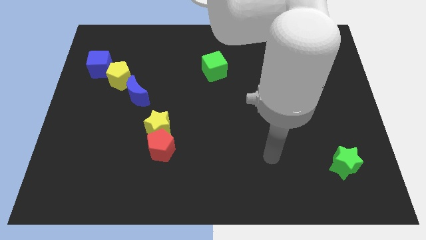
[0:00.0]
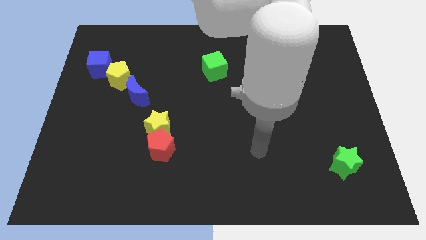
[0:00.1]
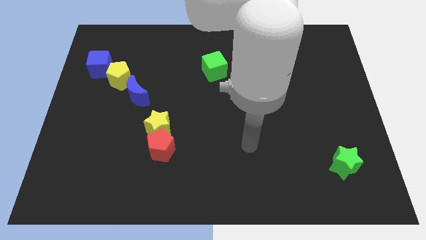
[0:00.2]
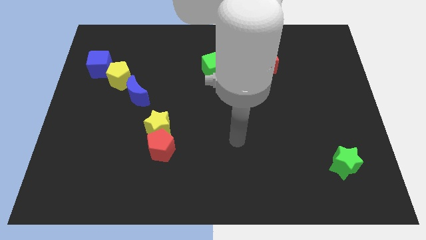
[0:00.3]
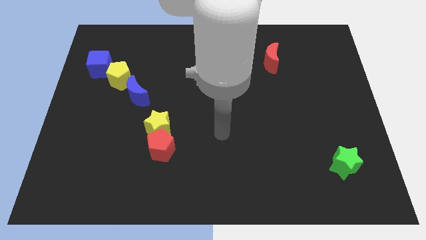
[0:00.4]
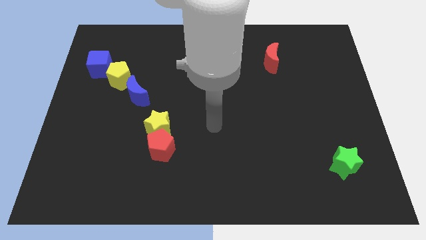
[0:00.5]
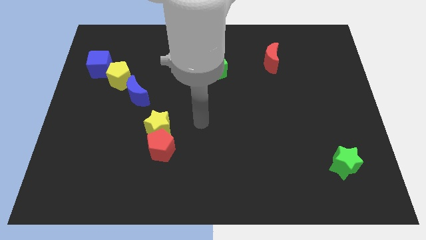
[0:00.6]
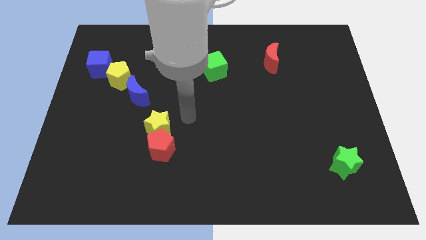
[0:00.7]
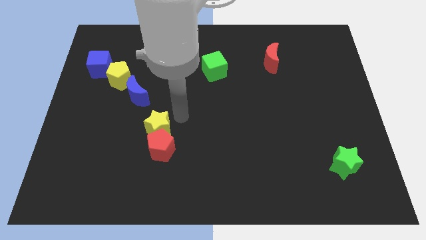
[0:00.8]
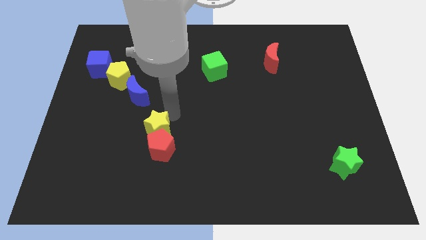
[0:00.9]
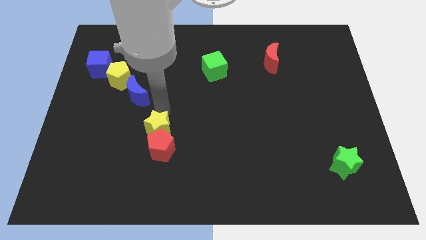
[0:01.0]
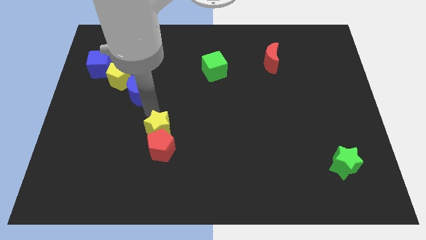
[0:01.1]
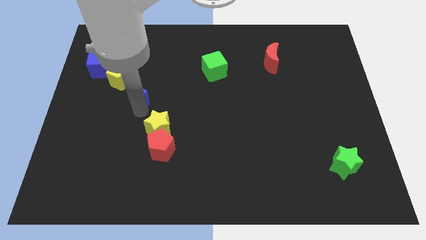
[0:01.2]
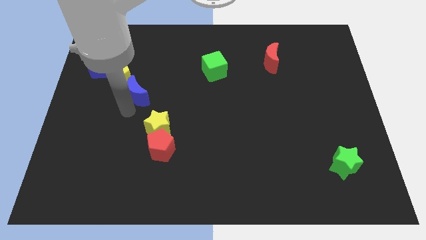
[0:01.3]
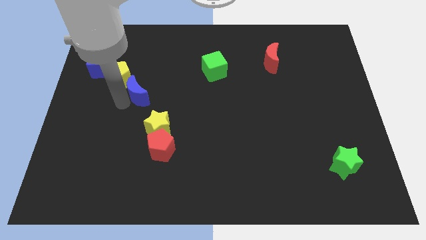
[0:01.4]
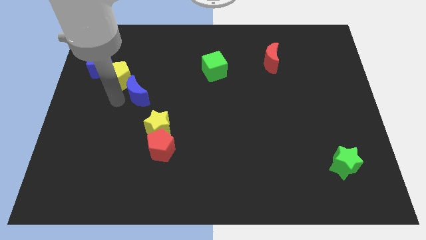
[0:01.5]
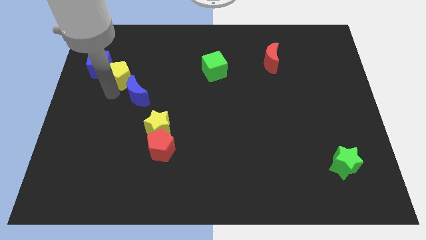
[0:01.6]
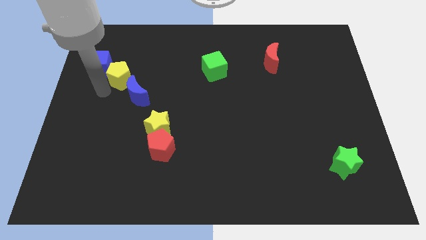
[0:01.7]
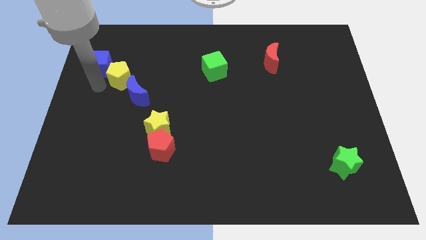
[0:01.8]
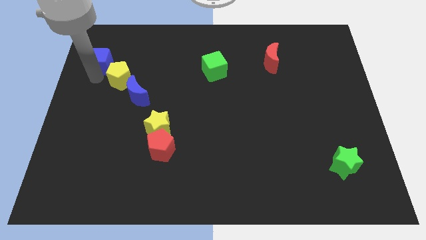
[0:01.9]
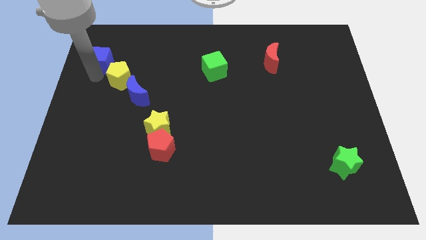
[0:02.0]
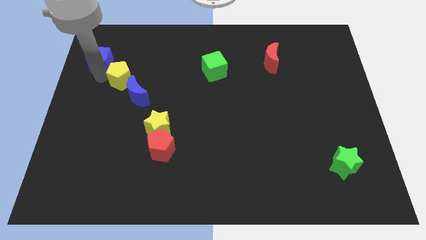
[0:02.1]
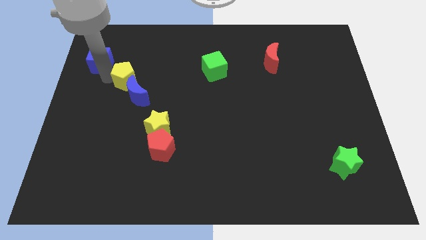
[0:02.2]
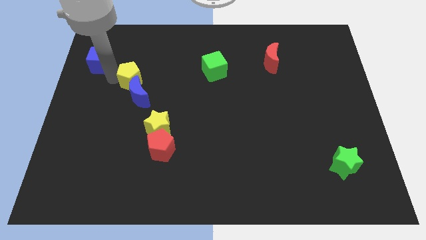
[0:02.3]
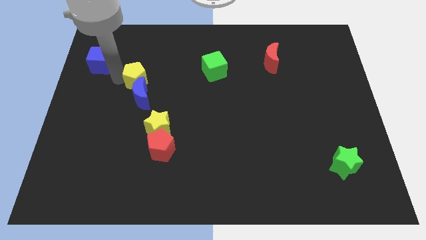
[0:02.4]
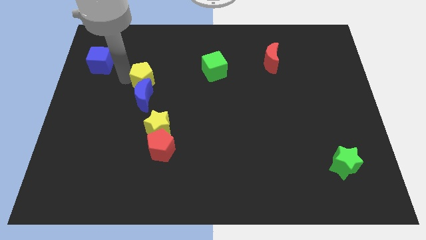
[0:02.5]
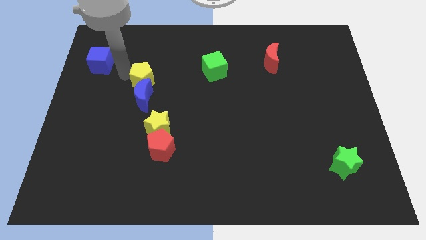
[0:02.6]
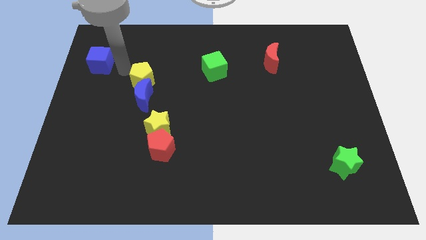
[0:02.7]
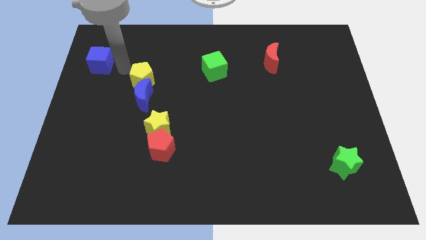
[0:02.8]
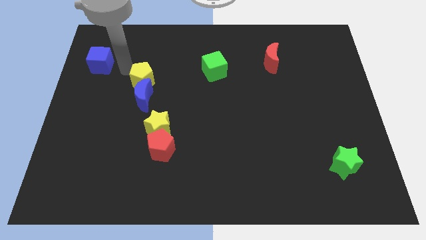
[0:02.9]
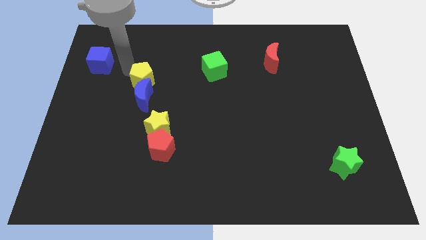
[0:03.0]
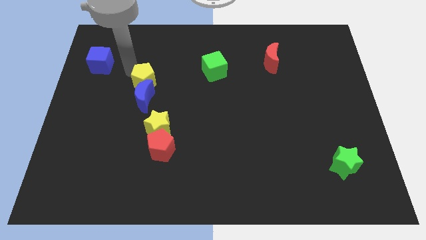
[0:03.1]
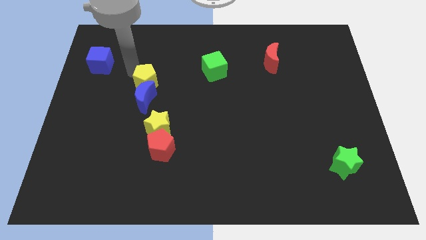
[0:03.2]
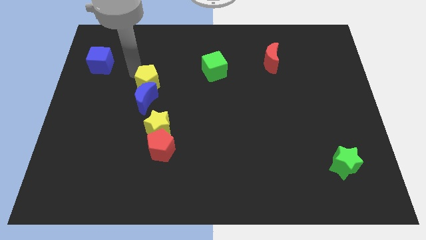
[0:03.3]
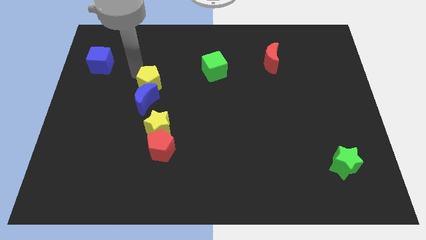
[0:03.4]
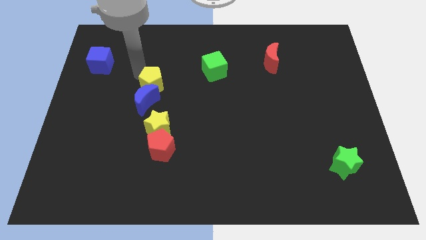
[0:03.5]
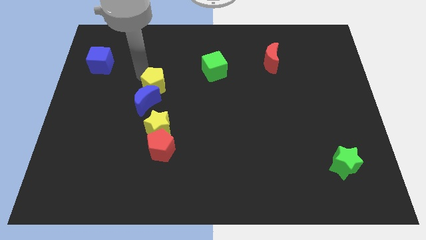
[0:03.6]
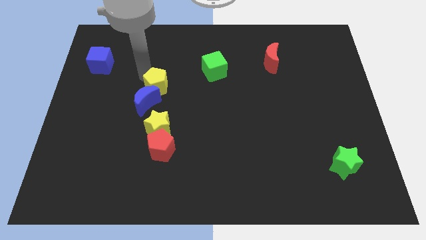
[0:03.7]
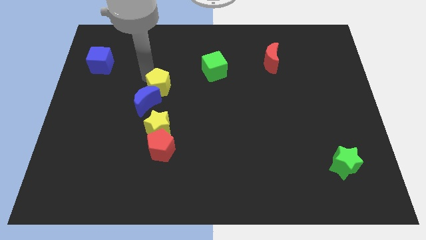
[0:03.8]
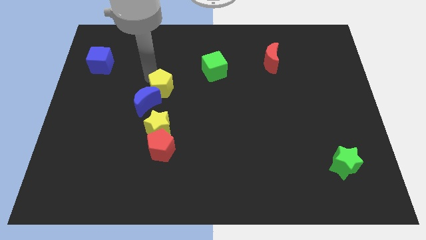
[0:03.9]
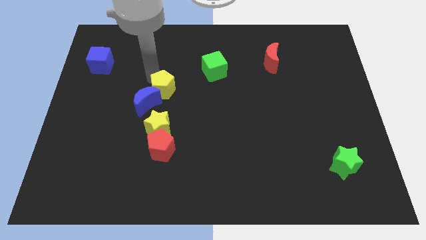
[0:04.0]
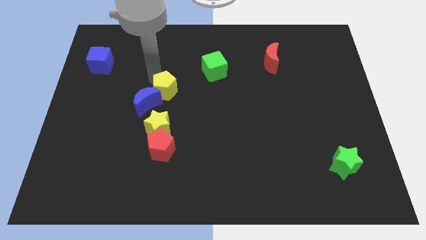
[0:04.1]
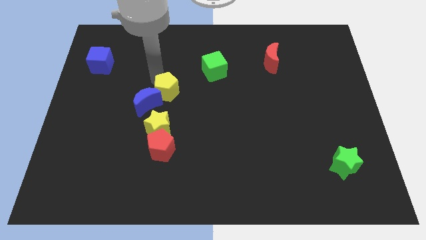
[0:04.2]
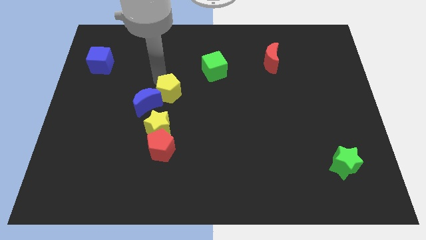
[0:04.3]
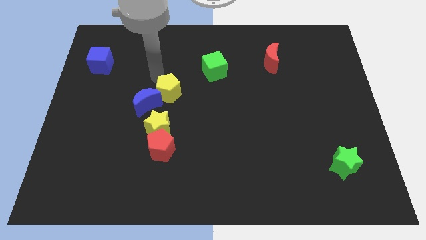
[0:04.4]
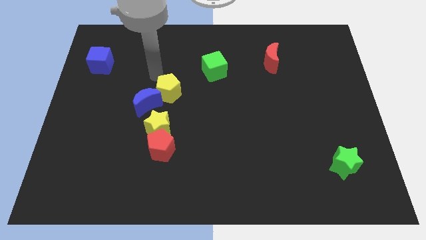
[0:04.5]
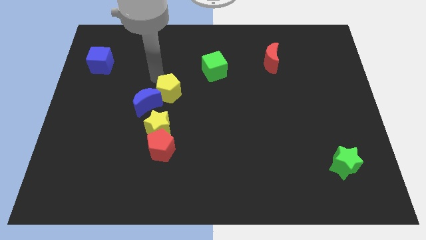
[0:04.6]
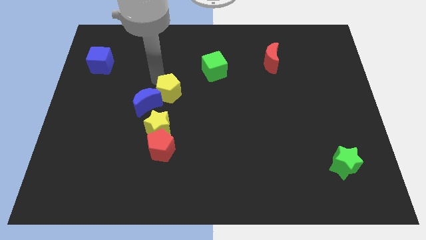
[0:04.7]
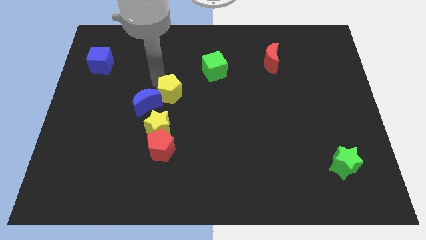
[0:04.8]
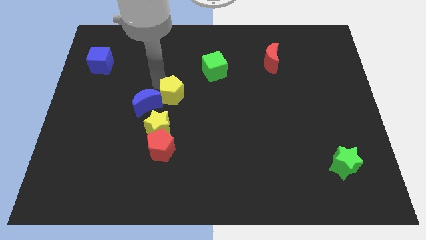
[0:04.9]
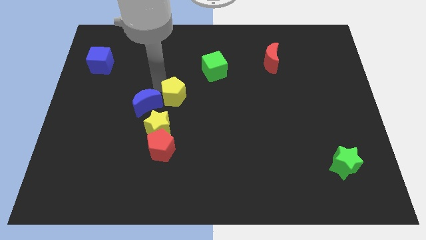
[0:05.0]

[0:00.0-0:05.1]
push the yellow pentagon to the top right of the yellow star

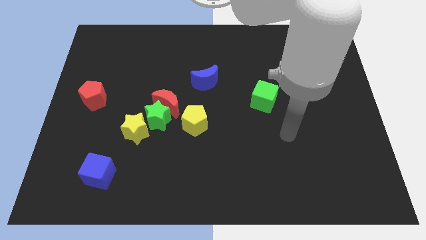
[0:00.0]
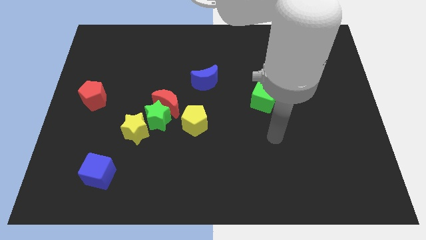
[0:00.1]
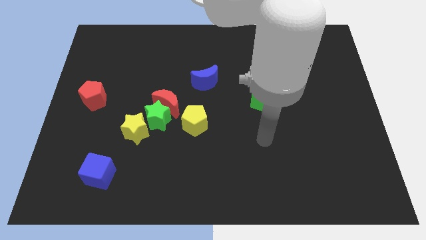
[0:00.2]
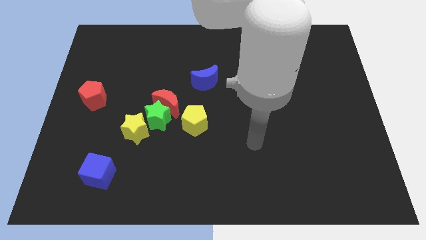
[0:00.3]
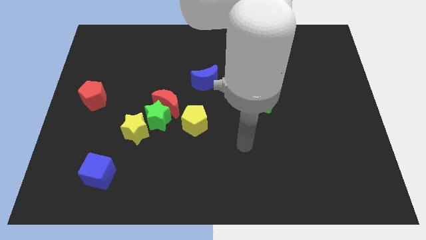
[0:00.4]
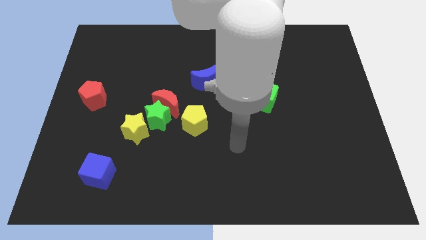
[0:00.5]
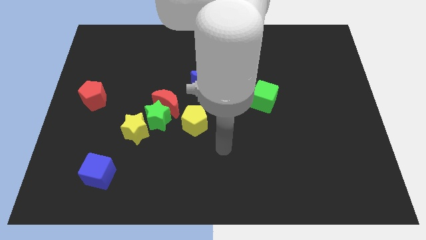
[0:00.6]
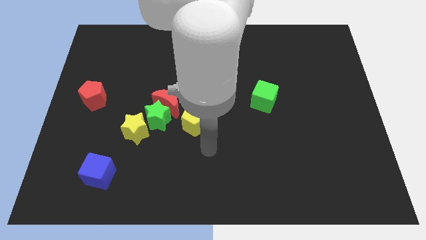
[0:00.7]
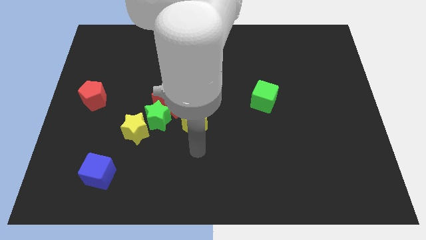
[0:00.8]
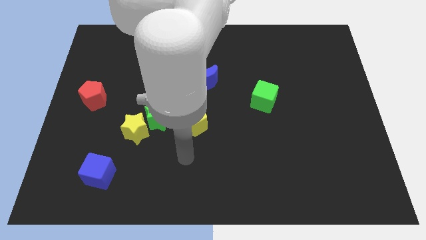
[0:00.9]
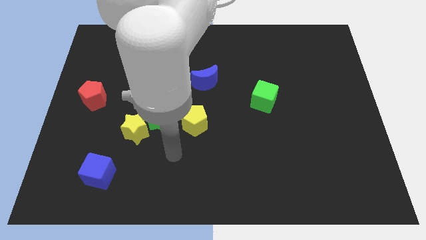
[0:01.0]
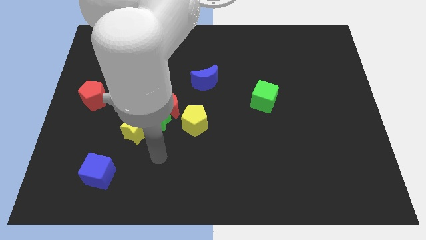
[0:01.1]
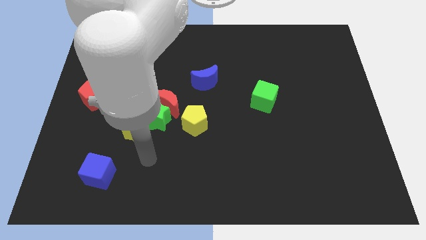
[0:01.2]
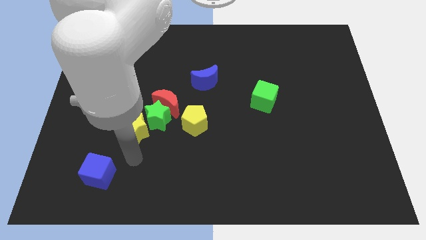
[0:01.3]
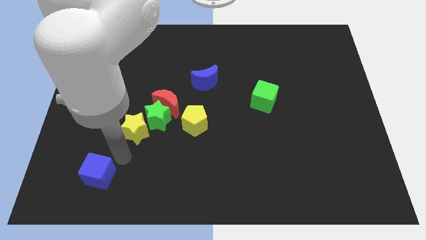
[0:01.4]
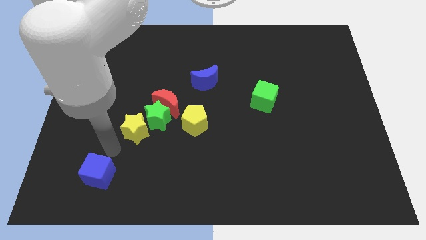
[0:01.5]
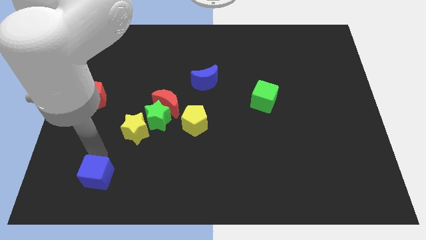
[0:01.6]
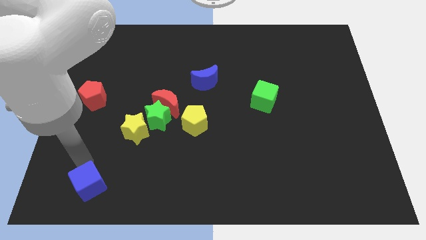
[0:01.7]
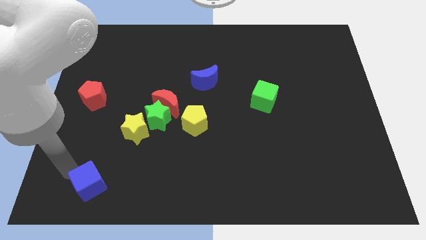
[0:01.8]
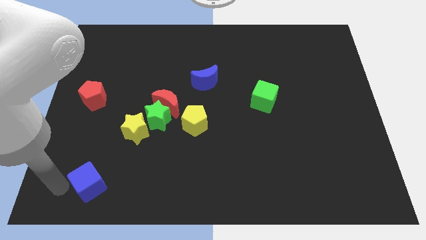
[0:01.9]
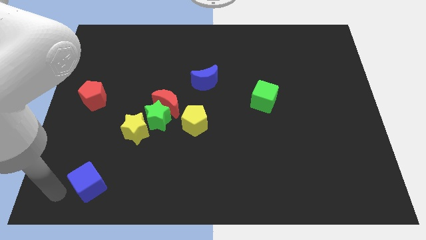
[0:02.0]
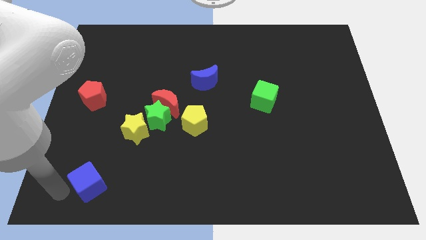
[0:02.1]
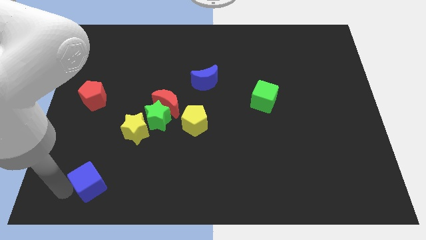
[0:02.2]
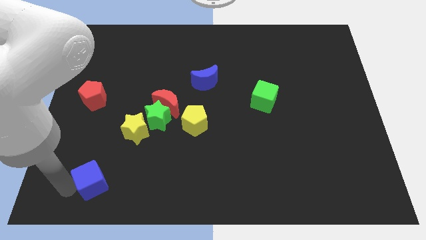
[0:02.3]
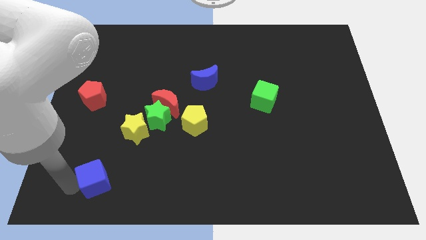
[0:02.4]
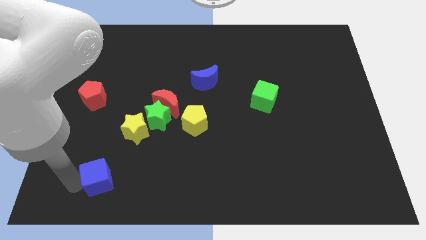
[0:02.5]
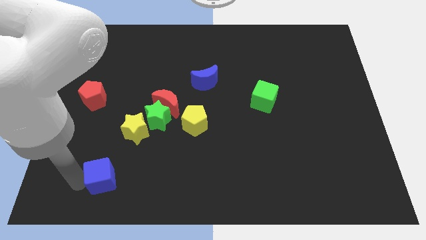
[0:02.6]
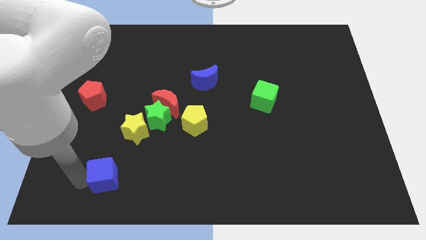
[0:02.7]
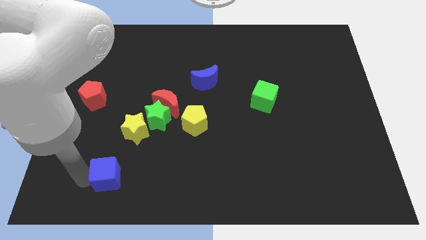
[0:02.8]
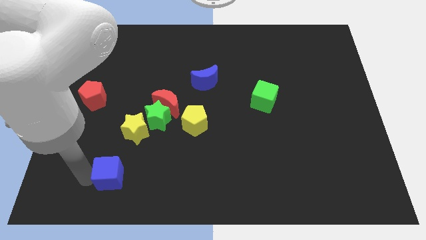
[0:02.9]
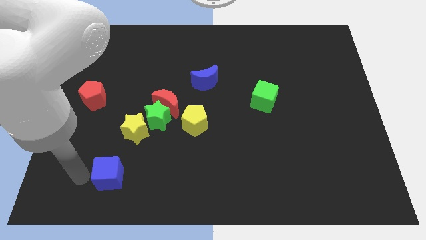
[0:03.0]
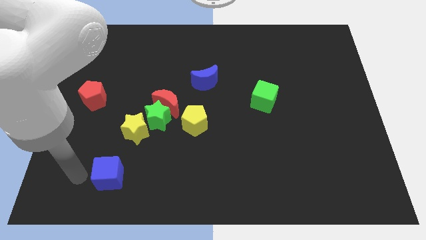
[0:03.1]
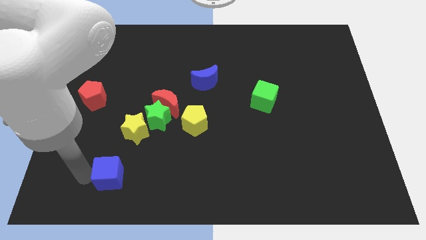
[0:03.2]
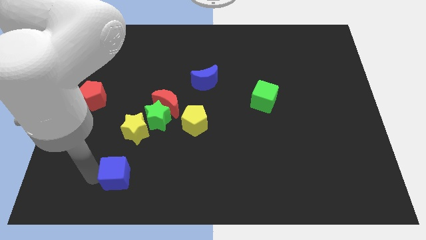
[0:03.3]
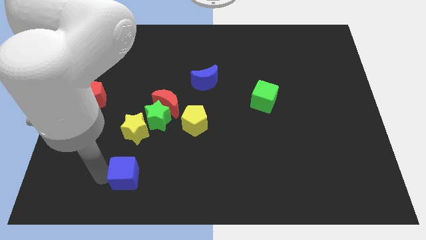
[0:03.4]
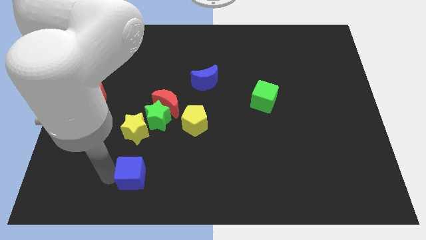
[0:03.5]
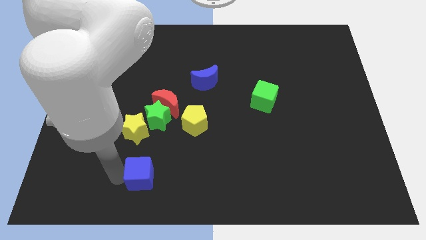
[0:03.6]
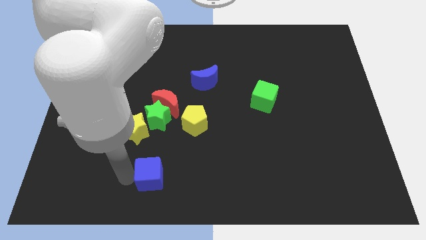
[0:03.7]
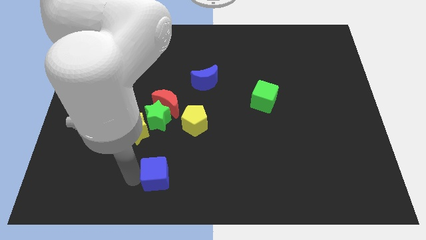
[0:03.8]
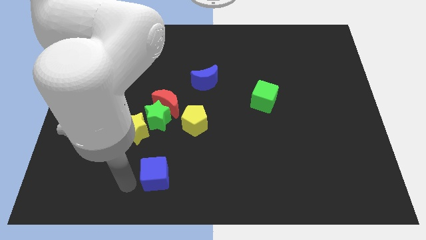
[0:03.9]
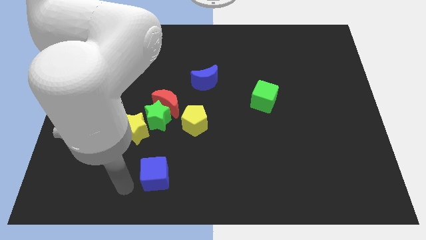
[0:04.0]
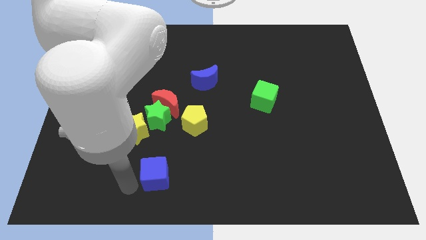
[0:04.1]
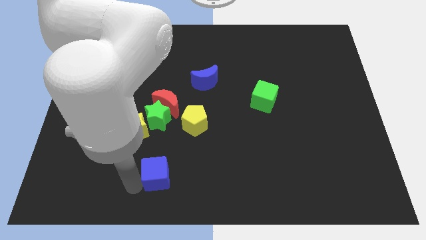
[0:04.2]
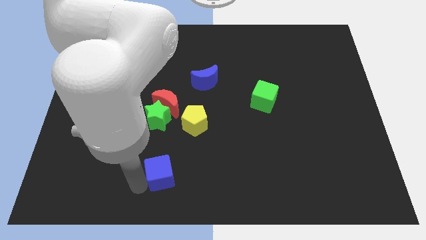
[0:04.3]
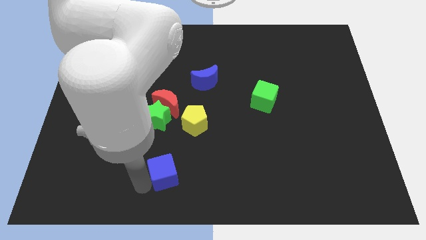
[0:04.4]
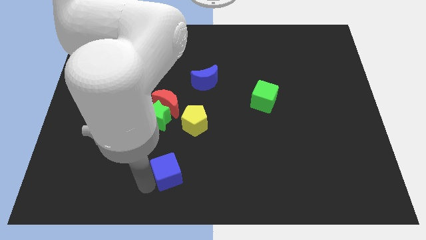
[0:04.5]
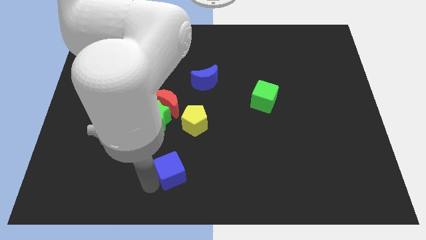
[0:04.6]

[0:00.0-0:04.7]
put the blue cube below the yellow pentagon
